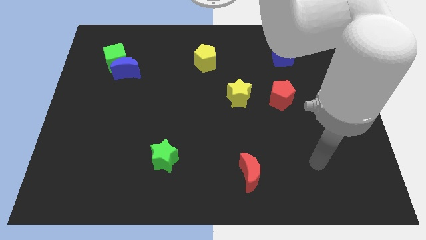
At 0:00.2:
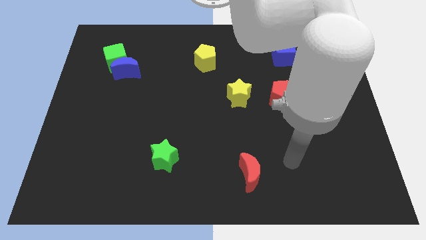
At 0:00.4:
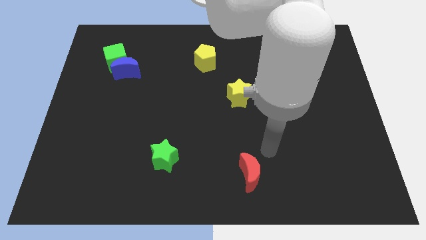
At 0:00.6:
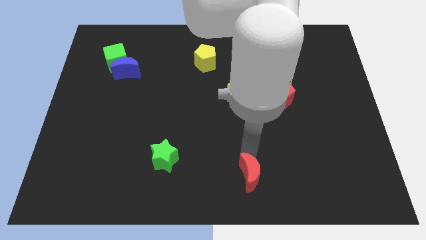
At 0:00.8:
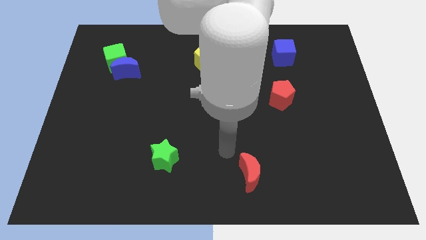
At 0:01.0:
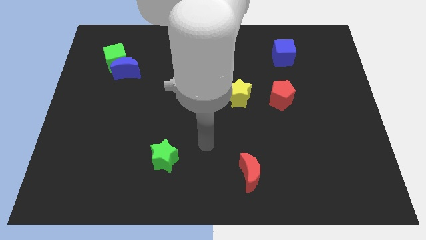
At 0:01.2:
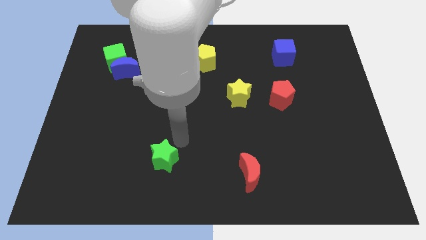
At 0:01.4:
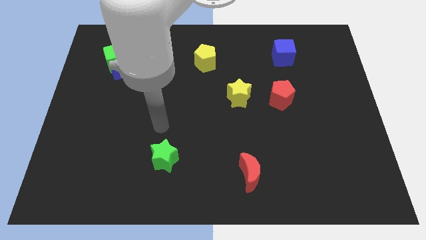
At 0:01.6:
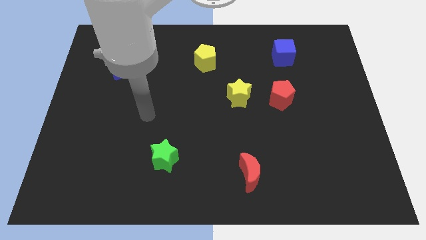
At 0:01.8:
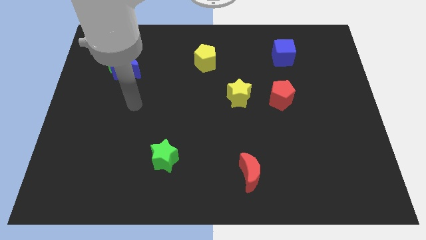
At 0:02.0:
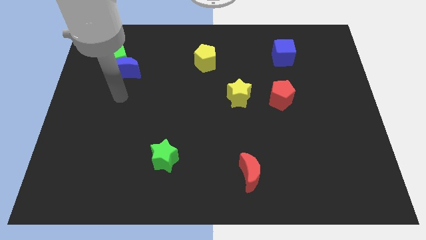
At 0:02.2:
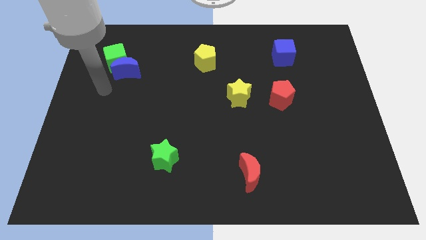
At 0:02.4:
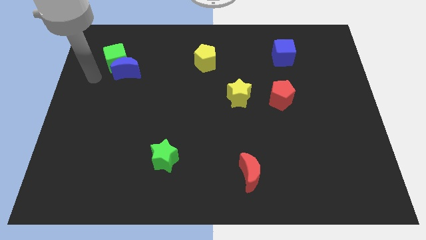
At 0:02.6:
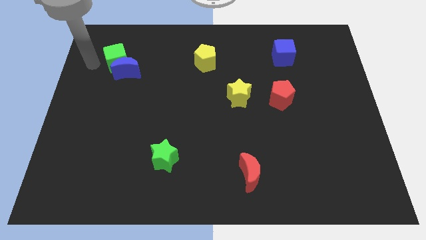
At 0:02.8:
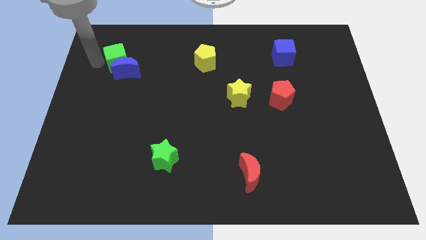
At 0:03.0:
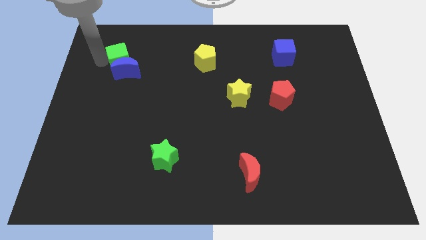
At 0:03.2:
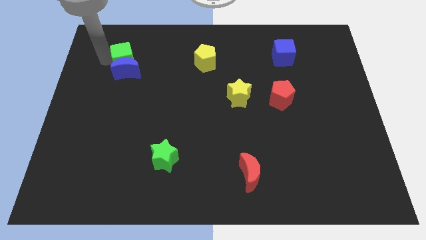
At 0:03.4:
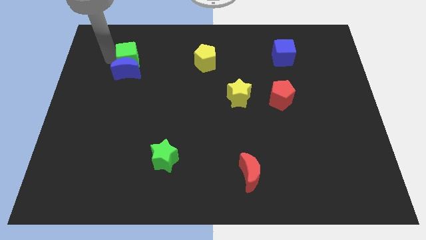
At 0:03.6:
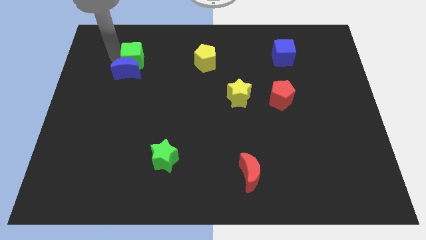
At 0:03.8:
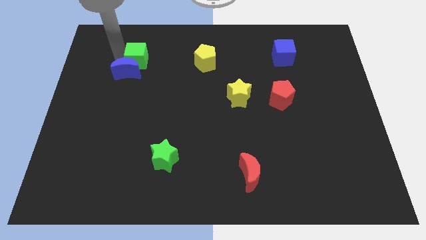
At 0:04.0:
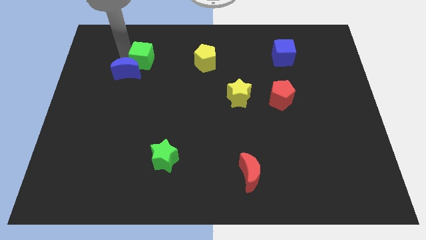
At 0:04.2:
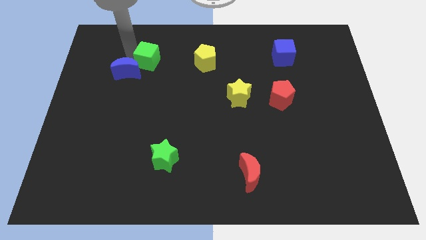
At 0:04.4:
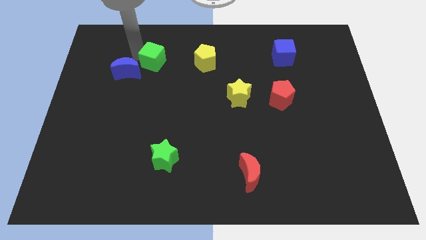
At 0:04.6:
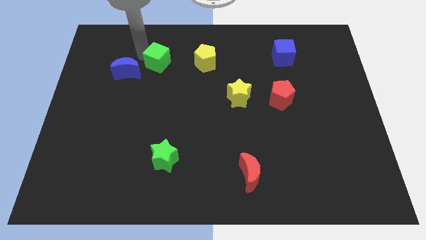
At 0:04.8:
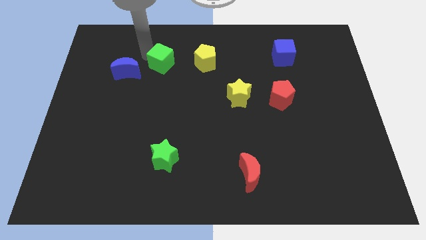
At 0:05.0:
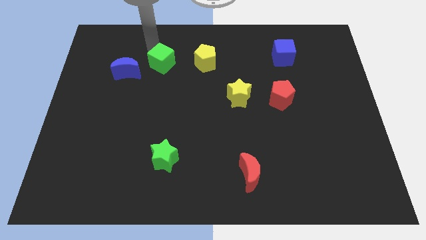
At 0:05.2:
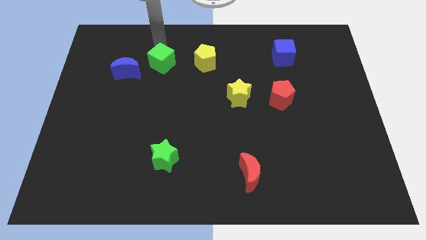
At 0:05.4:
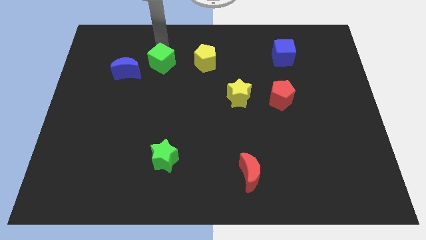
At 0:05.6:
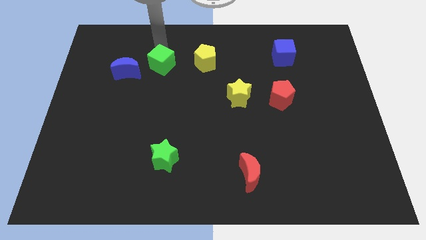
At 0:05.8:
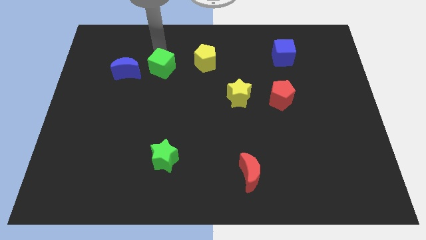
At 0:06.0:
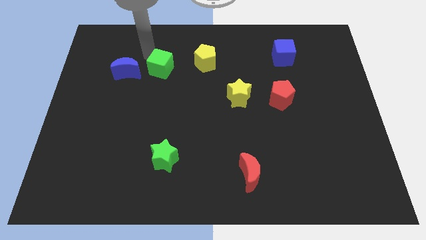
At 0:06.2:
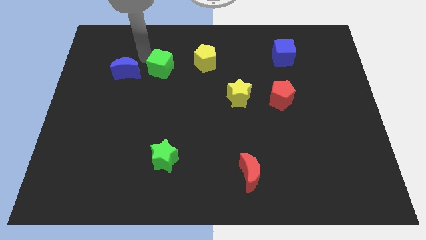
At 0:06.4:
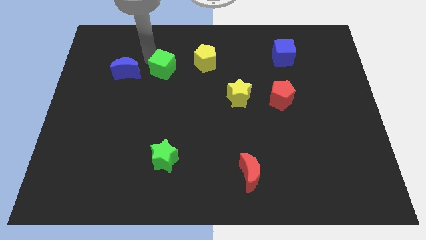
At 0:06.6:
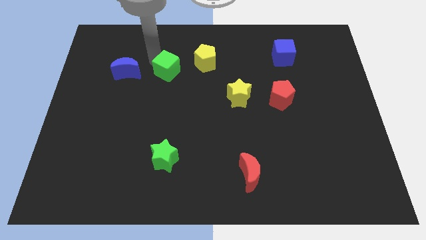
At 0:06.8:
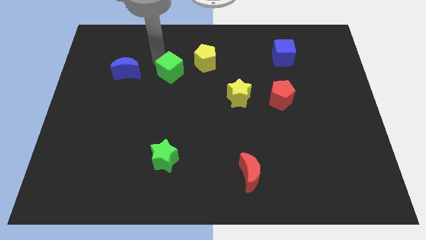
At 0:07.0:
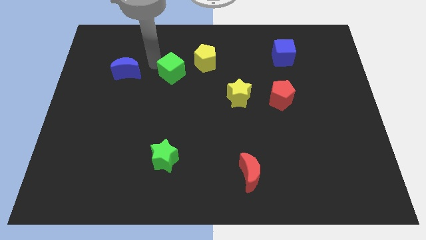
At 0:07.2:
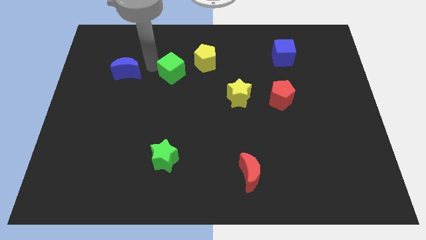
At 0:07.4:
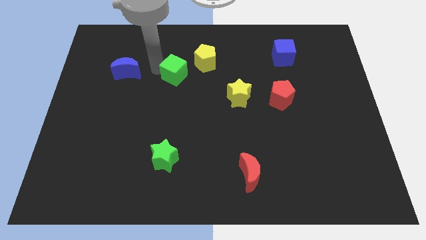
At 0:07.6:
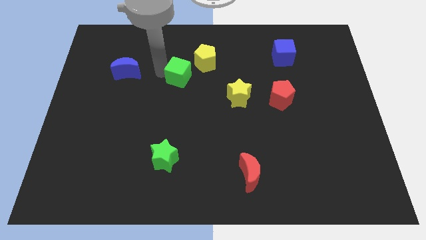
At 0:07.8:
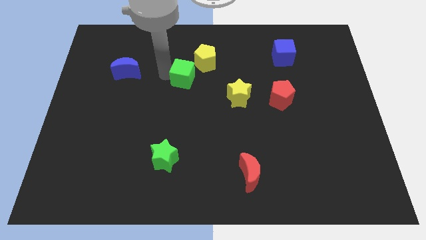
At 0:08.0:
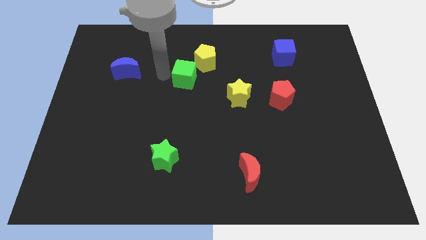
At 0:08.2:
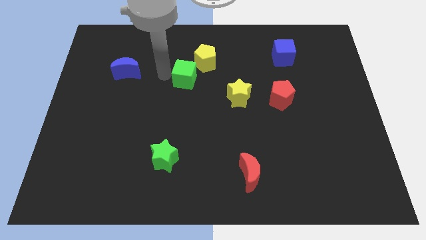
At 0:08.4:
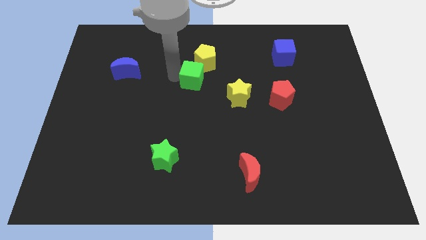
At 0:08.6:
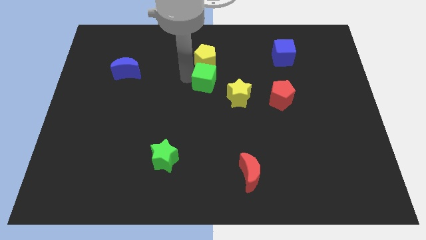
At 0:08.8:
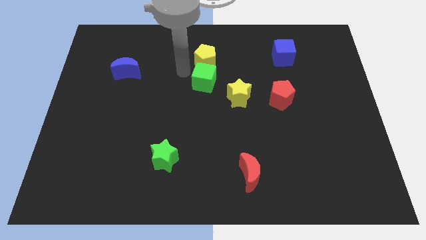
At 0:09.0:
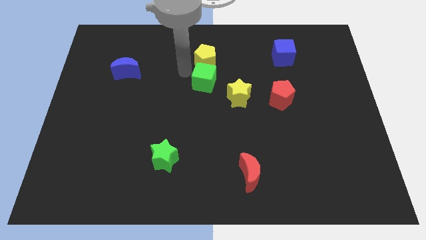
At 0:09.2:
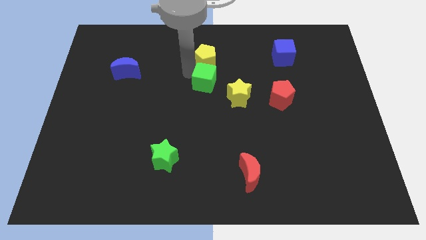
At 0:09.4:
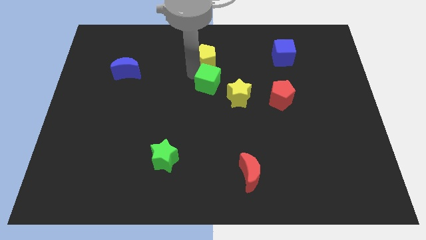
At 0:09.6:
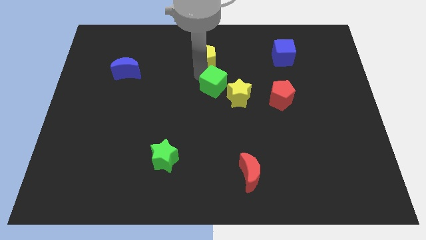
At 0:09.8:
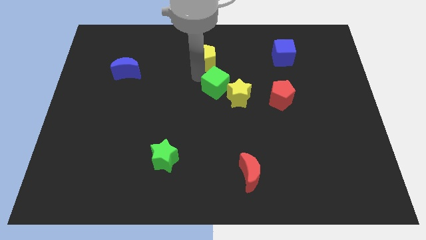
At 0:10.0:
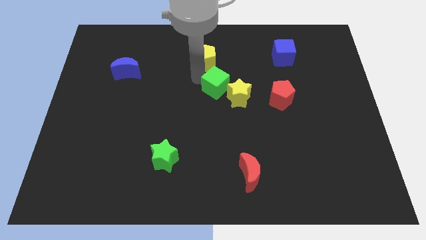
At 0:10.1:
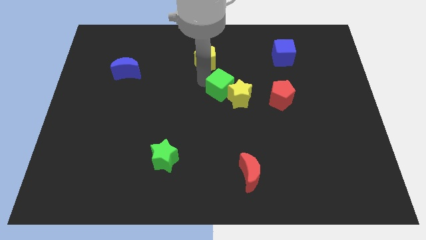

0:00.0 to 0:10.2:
slide the green cube towards the yellow star

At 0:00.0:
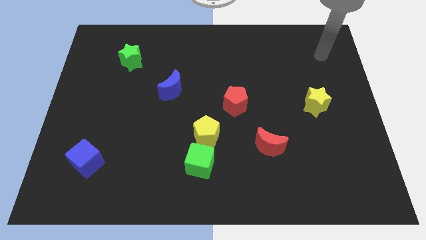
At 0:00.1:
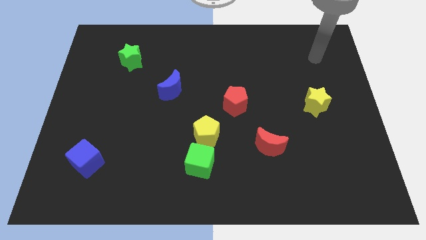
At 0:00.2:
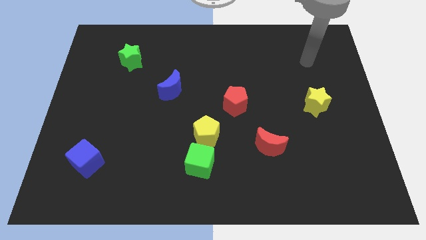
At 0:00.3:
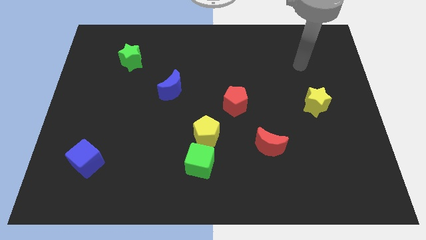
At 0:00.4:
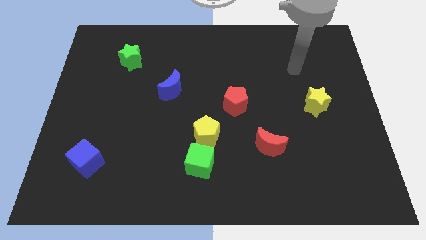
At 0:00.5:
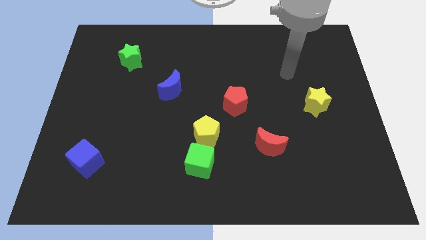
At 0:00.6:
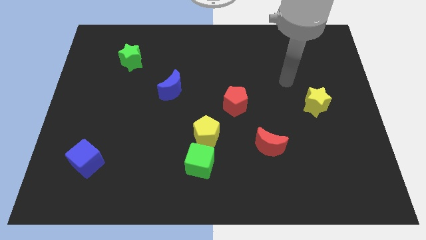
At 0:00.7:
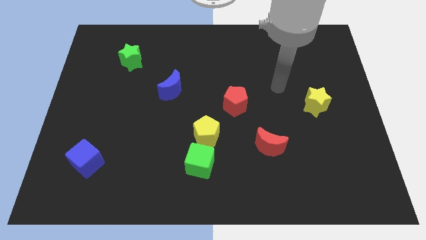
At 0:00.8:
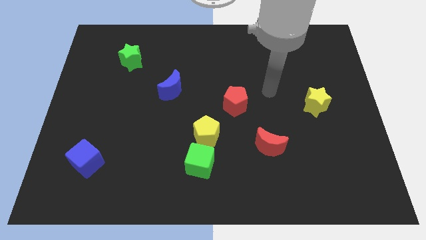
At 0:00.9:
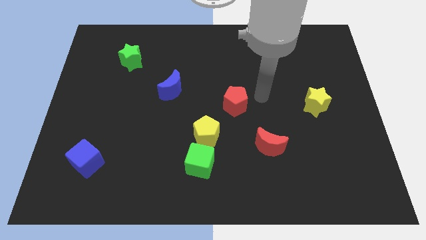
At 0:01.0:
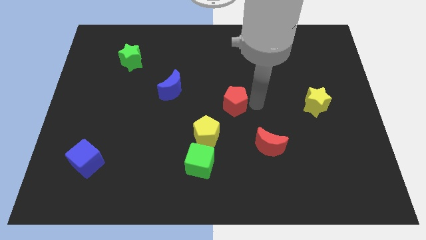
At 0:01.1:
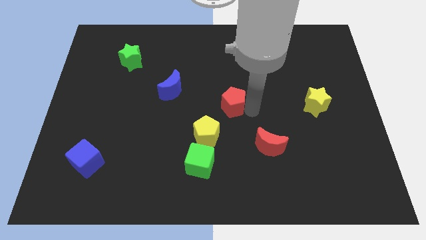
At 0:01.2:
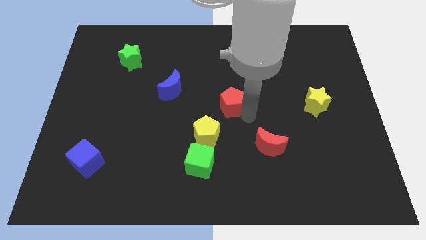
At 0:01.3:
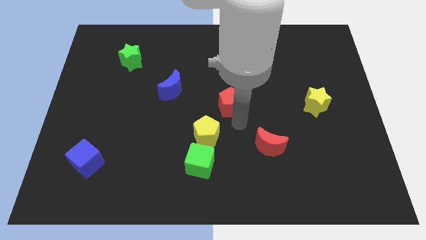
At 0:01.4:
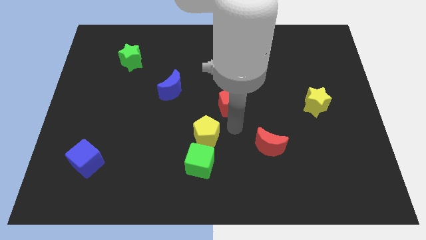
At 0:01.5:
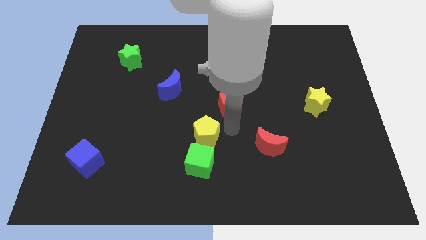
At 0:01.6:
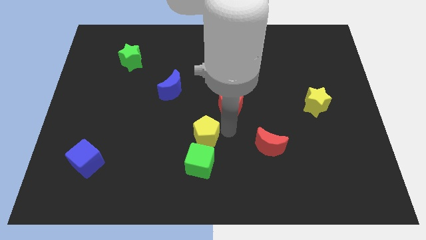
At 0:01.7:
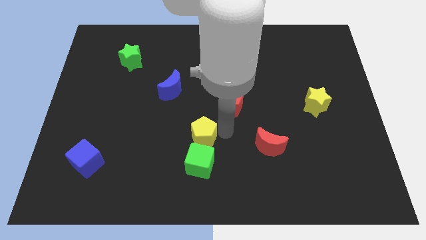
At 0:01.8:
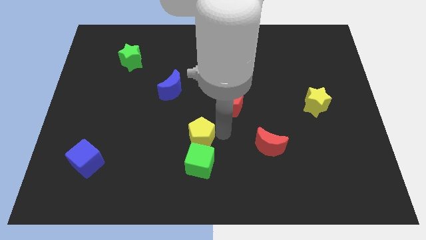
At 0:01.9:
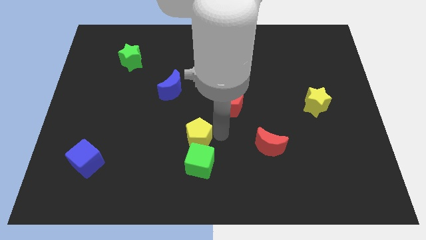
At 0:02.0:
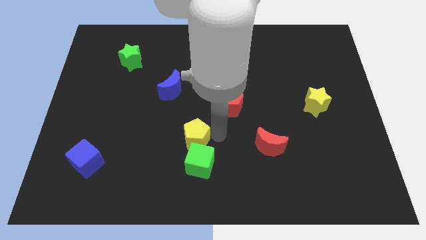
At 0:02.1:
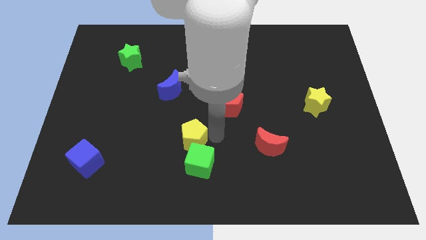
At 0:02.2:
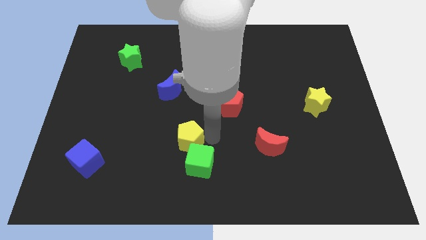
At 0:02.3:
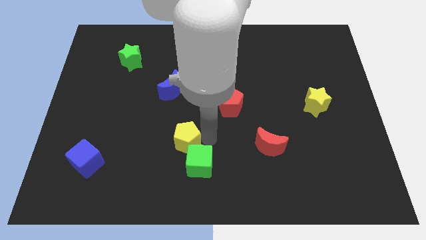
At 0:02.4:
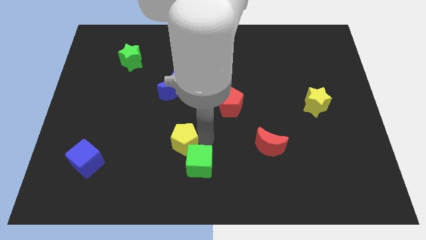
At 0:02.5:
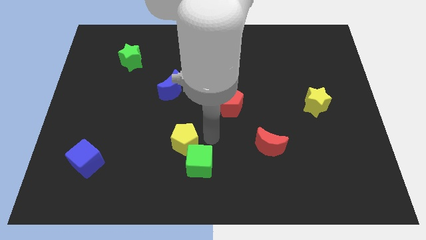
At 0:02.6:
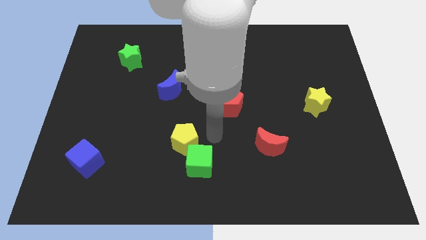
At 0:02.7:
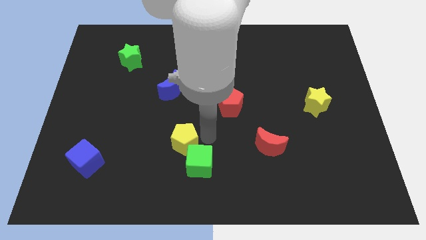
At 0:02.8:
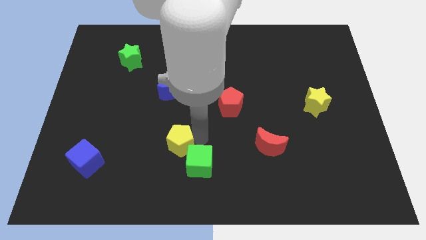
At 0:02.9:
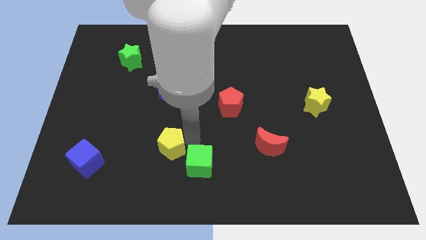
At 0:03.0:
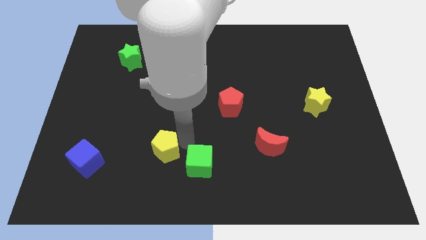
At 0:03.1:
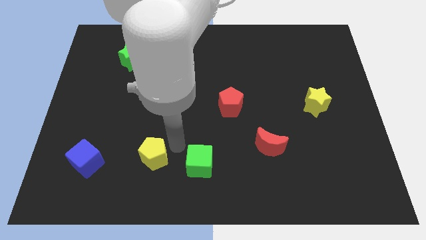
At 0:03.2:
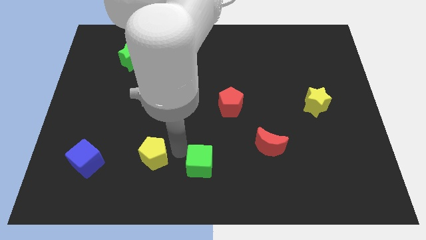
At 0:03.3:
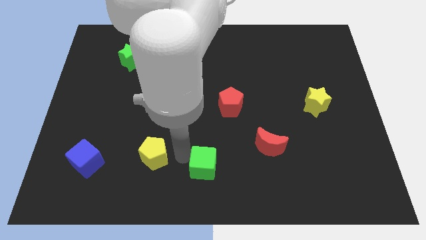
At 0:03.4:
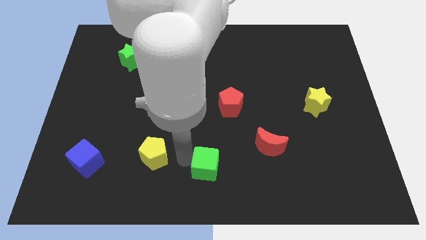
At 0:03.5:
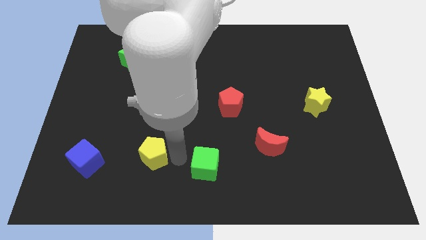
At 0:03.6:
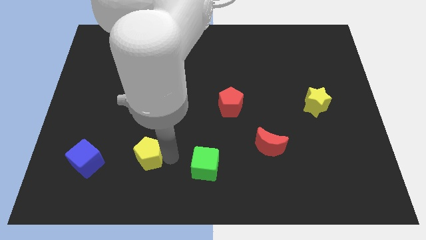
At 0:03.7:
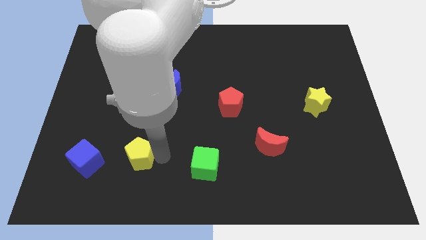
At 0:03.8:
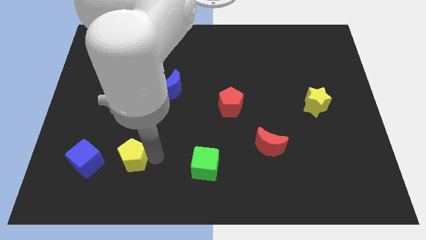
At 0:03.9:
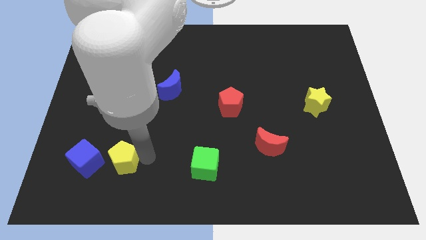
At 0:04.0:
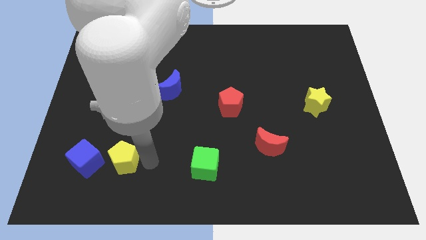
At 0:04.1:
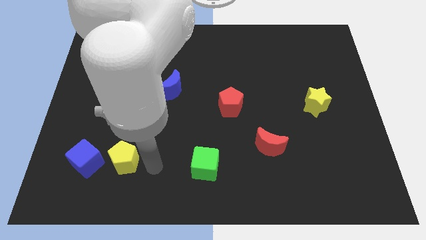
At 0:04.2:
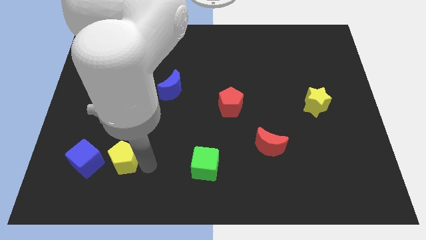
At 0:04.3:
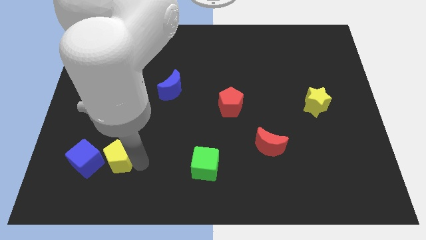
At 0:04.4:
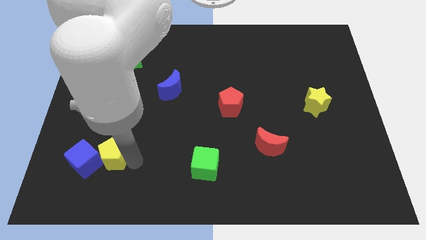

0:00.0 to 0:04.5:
push the yellow pentagon towards the blue cube
